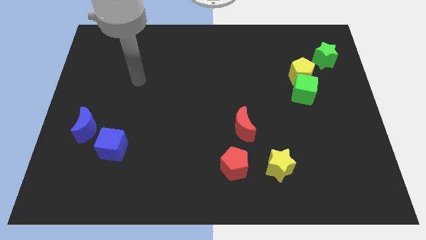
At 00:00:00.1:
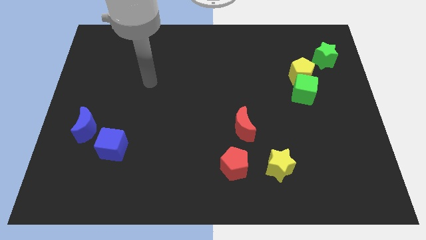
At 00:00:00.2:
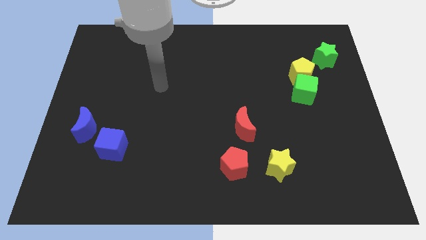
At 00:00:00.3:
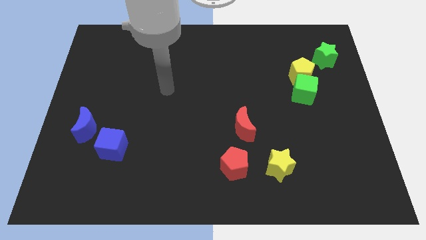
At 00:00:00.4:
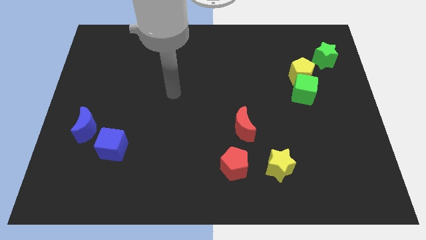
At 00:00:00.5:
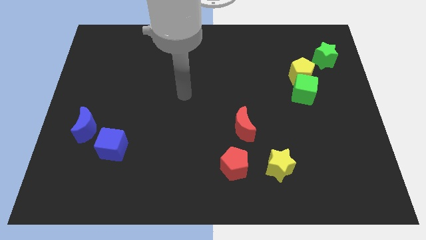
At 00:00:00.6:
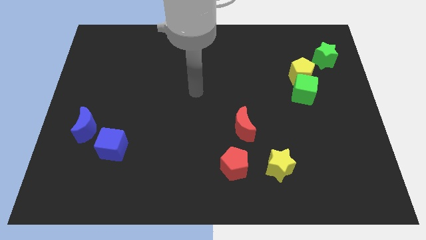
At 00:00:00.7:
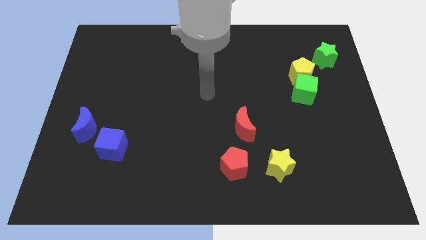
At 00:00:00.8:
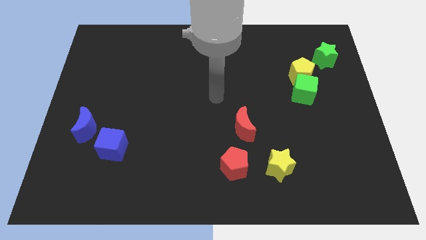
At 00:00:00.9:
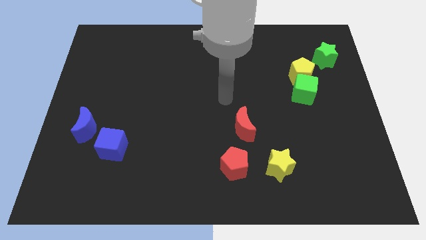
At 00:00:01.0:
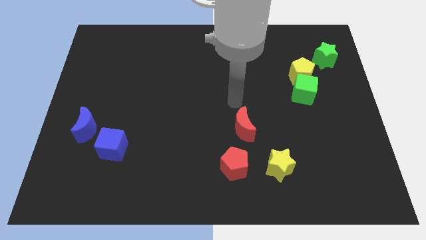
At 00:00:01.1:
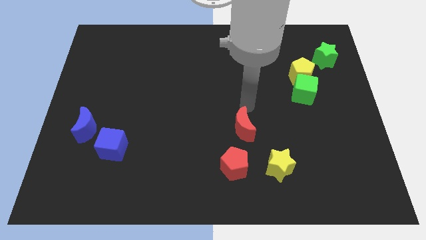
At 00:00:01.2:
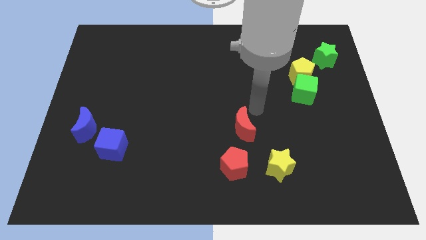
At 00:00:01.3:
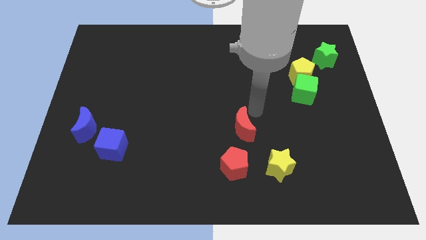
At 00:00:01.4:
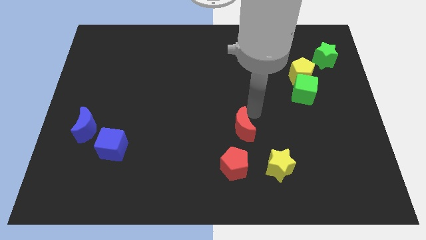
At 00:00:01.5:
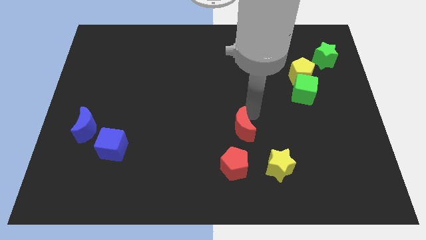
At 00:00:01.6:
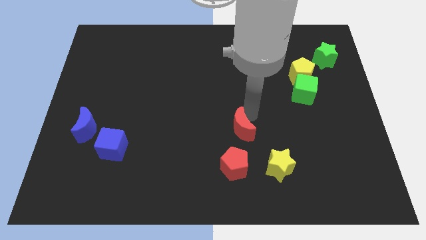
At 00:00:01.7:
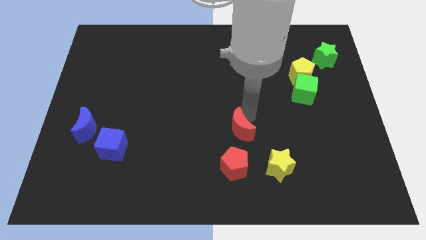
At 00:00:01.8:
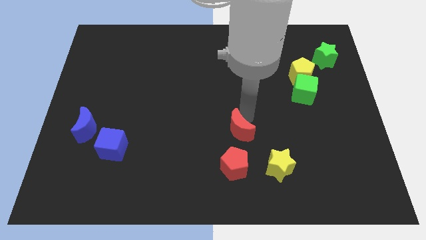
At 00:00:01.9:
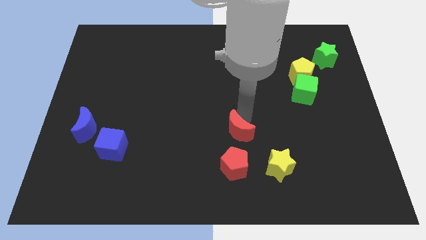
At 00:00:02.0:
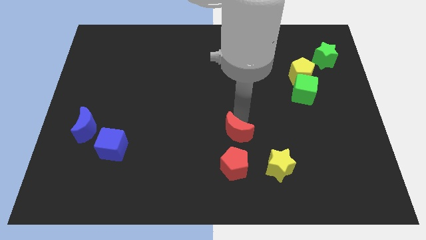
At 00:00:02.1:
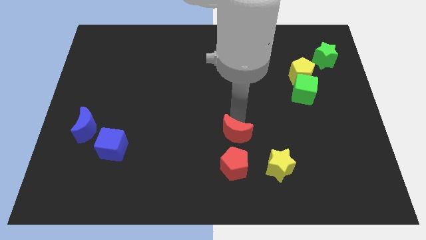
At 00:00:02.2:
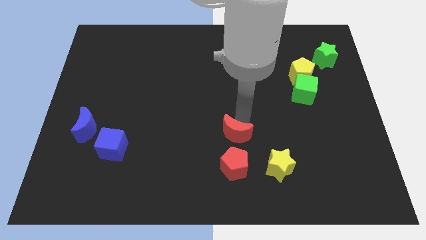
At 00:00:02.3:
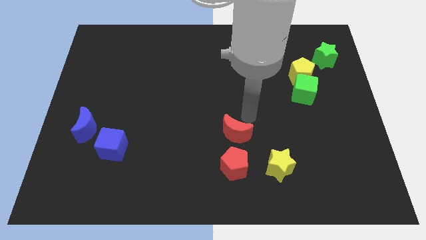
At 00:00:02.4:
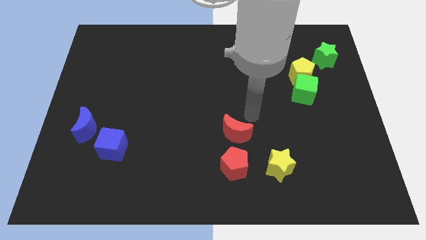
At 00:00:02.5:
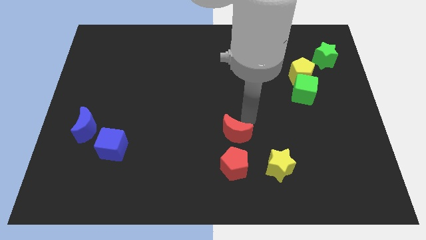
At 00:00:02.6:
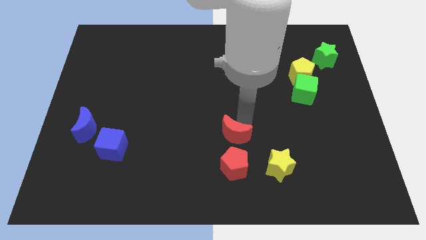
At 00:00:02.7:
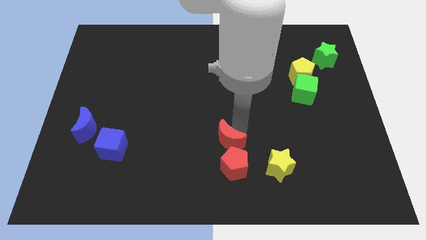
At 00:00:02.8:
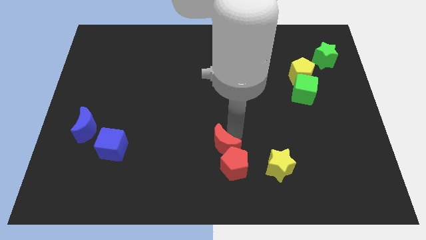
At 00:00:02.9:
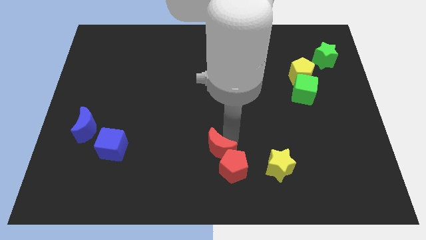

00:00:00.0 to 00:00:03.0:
slightly slide the red moon diagonally down and to the left

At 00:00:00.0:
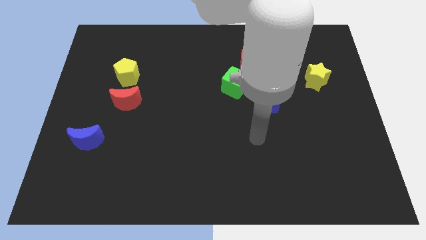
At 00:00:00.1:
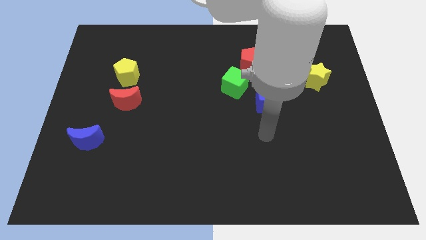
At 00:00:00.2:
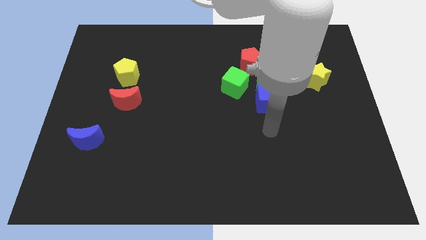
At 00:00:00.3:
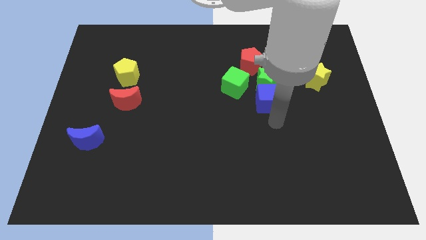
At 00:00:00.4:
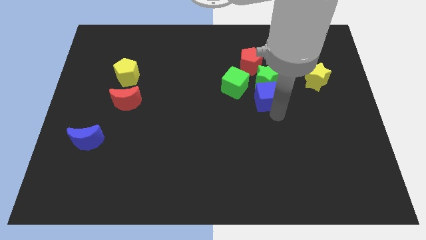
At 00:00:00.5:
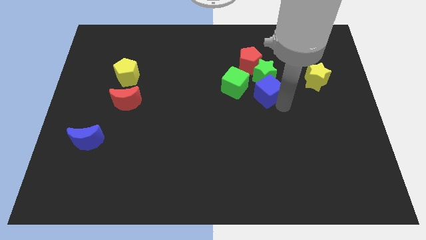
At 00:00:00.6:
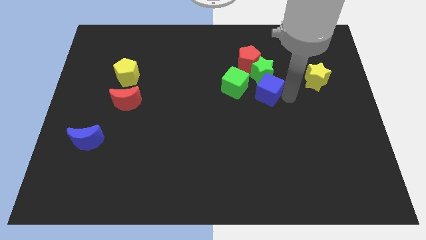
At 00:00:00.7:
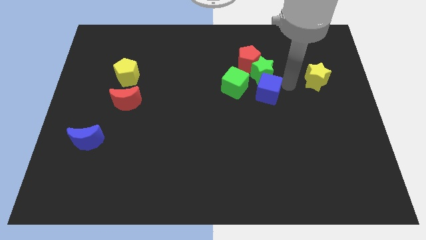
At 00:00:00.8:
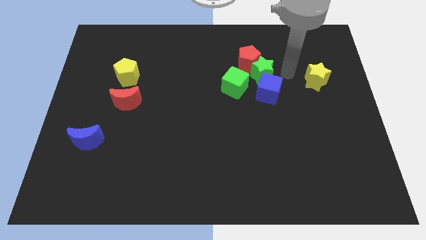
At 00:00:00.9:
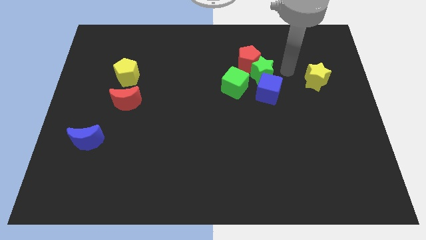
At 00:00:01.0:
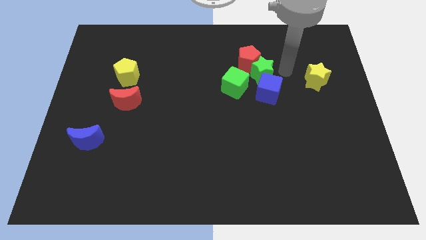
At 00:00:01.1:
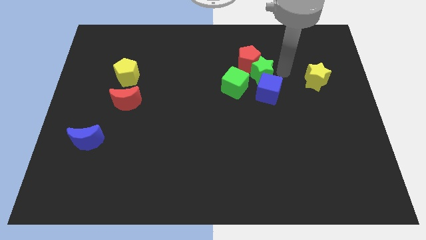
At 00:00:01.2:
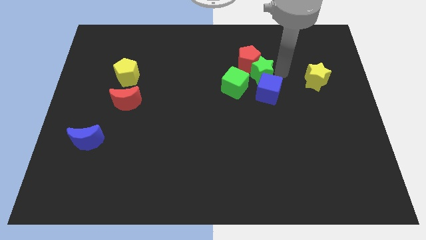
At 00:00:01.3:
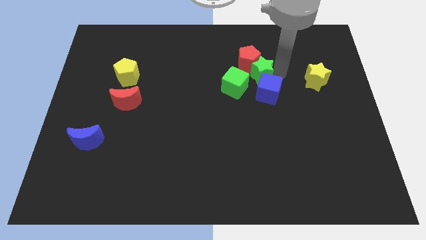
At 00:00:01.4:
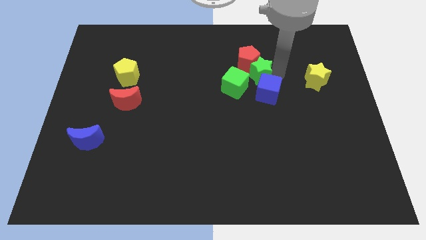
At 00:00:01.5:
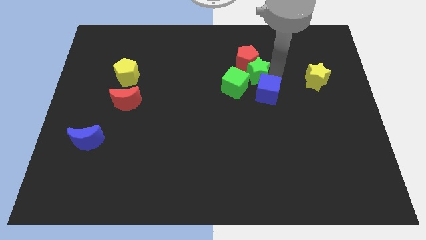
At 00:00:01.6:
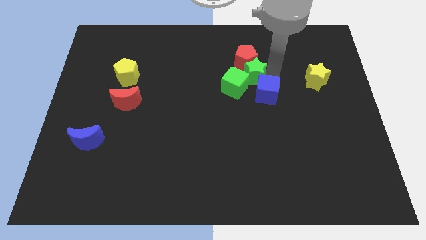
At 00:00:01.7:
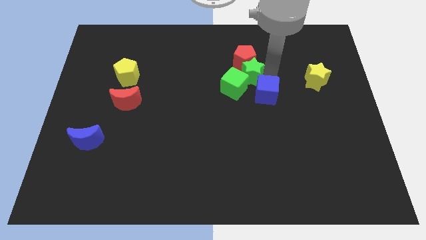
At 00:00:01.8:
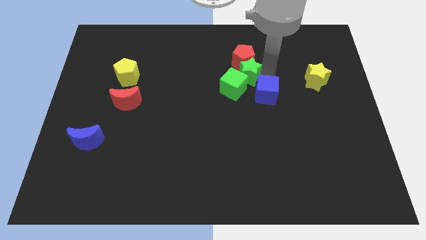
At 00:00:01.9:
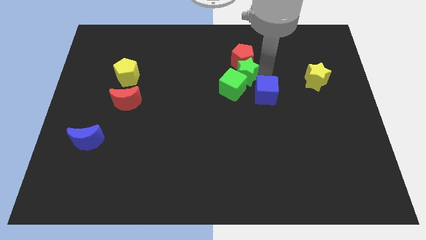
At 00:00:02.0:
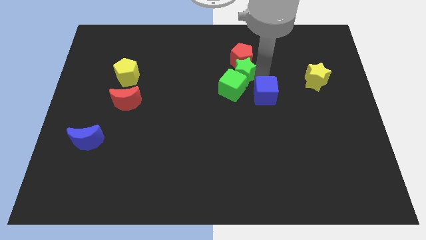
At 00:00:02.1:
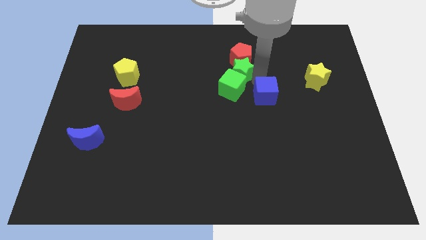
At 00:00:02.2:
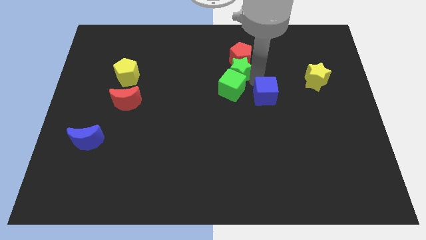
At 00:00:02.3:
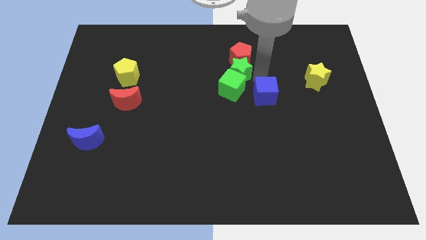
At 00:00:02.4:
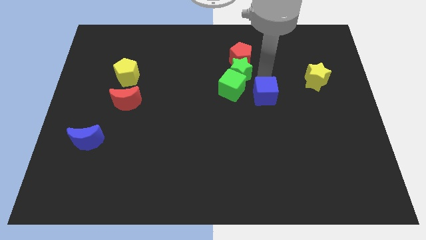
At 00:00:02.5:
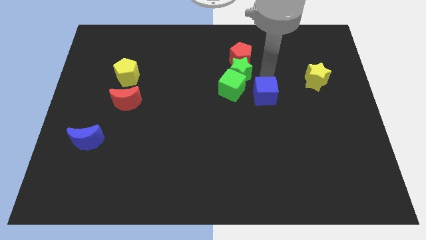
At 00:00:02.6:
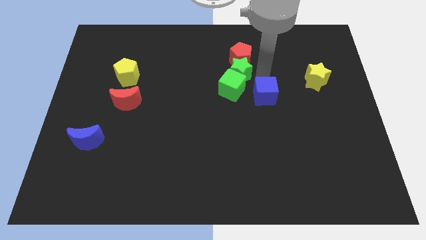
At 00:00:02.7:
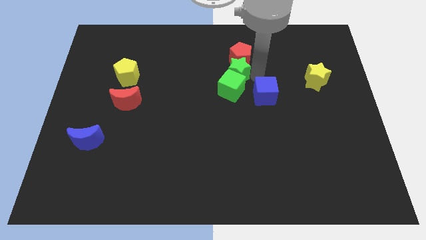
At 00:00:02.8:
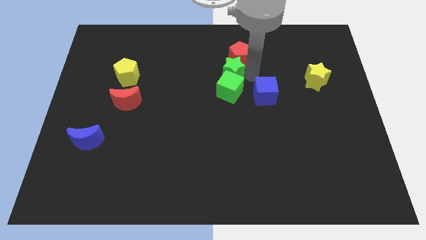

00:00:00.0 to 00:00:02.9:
move the green star to the left a bit

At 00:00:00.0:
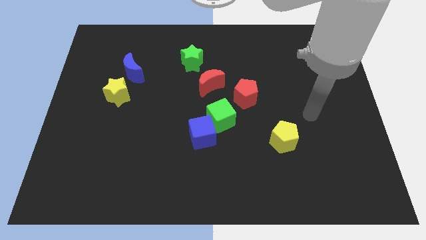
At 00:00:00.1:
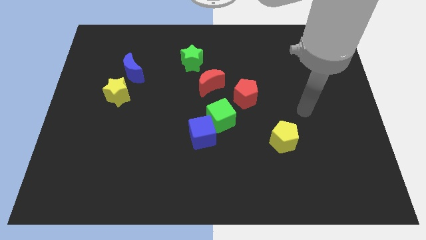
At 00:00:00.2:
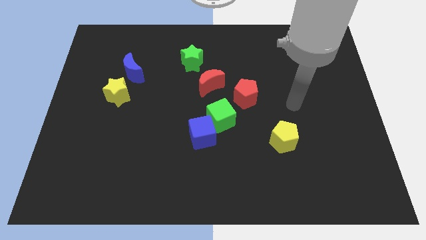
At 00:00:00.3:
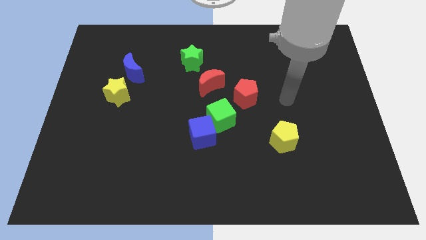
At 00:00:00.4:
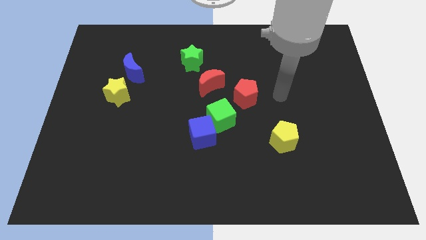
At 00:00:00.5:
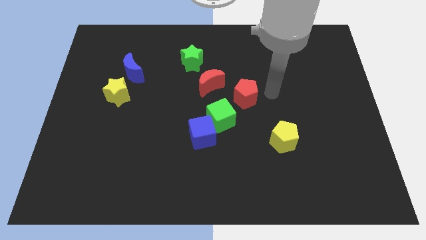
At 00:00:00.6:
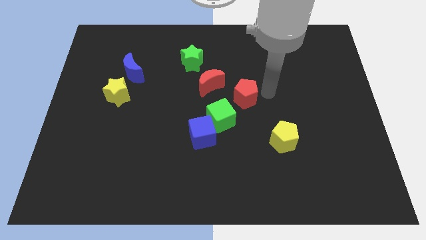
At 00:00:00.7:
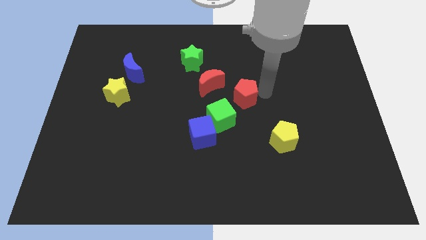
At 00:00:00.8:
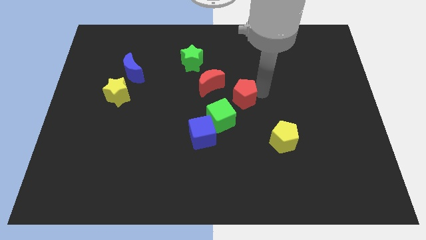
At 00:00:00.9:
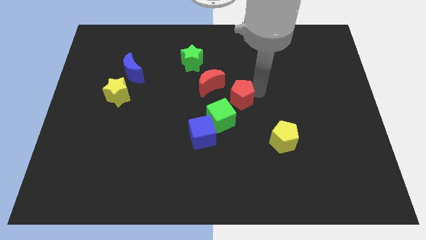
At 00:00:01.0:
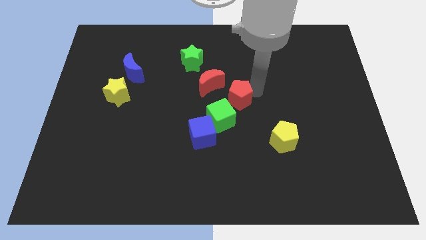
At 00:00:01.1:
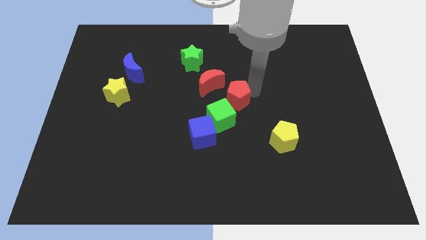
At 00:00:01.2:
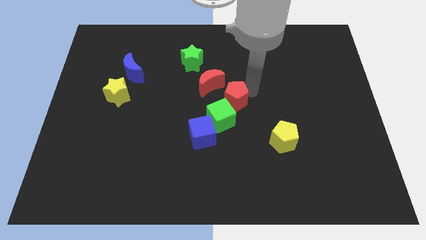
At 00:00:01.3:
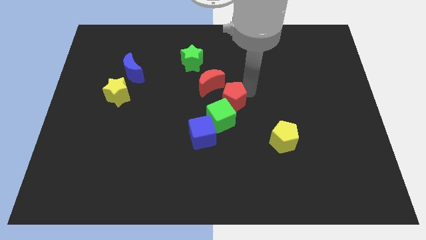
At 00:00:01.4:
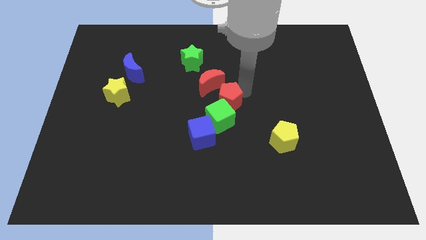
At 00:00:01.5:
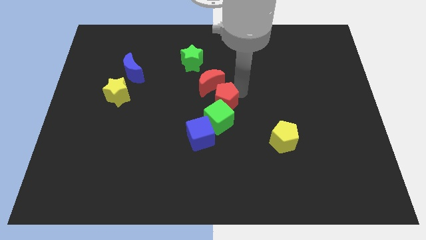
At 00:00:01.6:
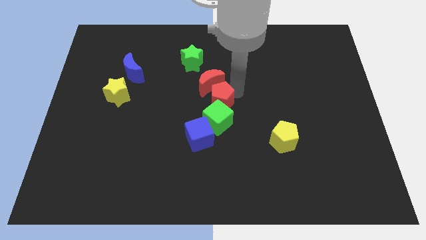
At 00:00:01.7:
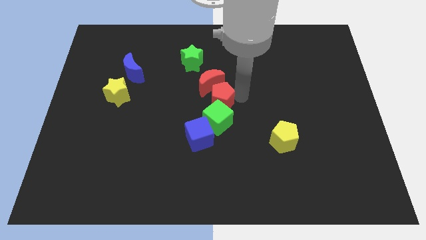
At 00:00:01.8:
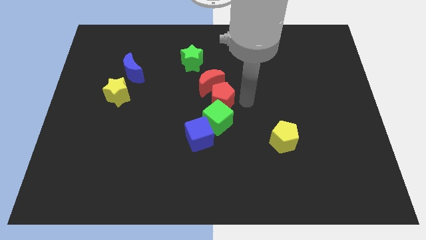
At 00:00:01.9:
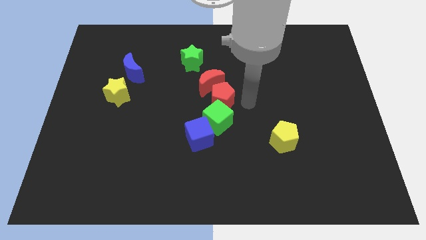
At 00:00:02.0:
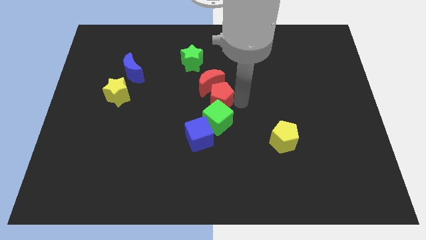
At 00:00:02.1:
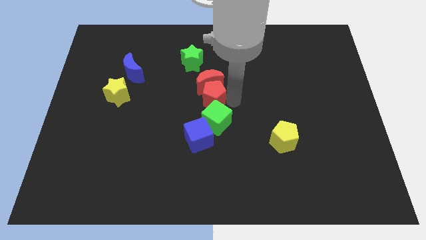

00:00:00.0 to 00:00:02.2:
push the red pentagon a little bit left
